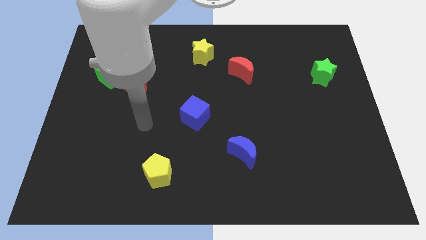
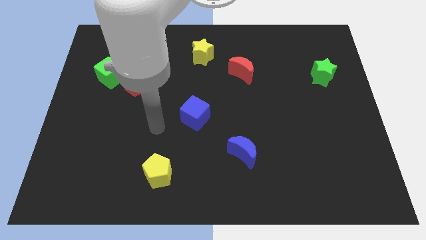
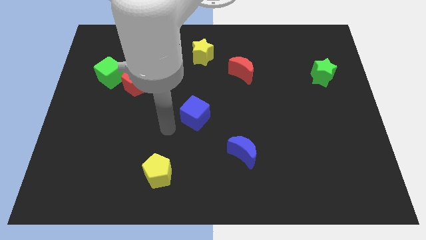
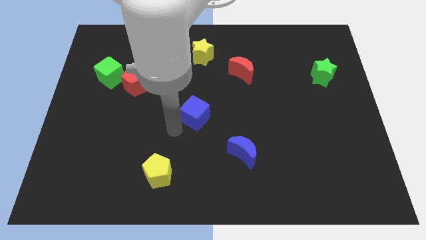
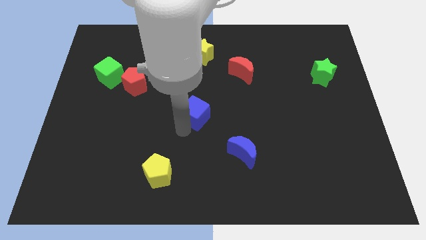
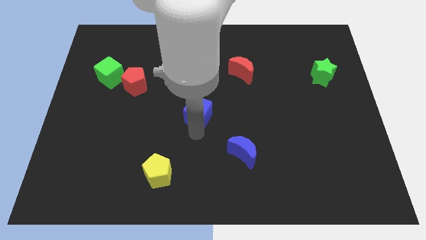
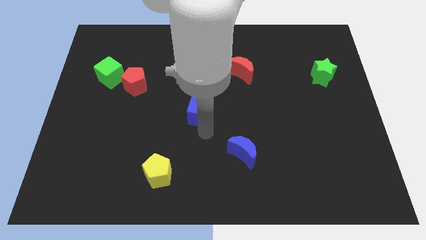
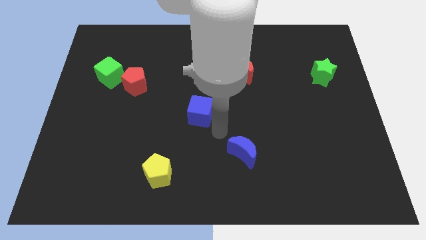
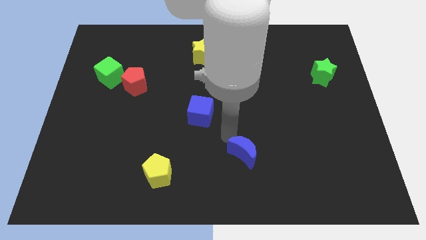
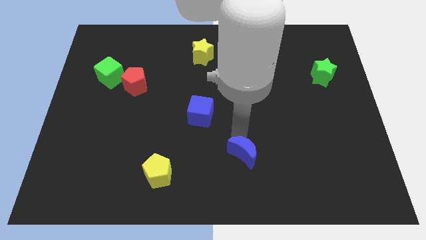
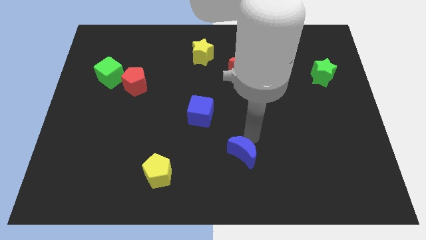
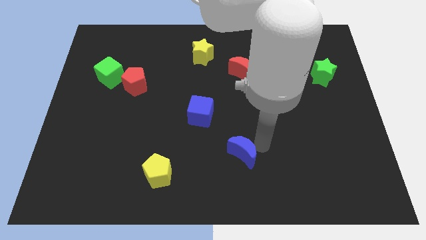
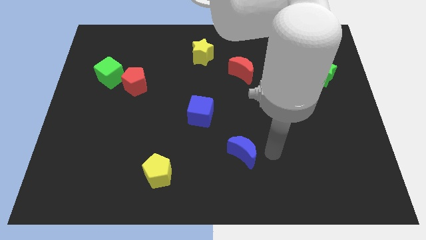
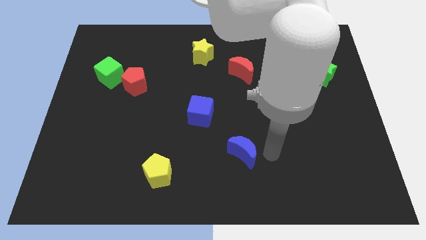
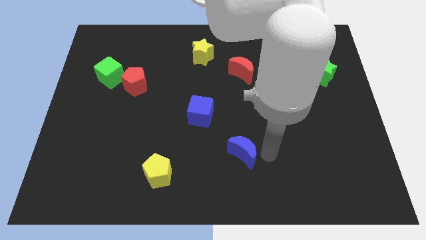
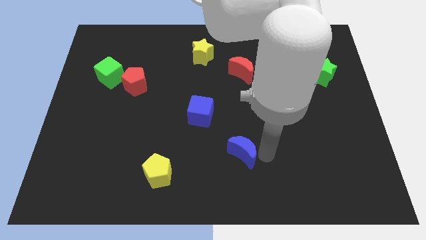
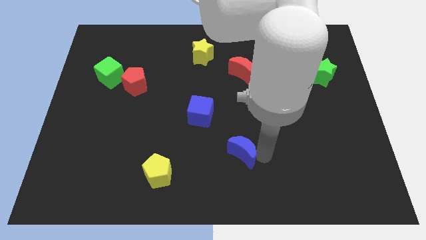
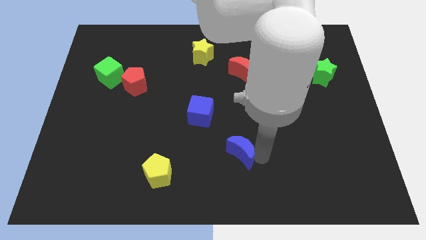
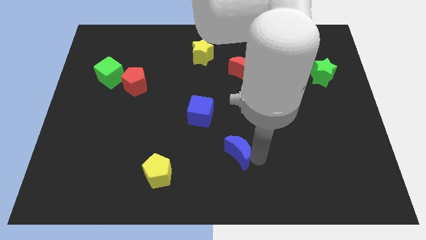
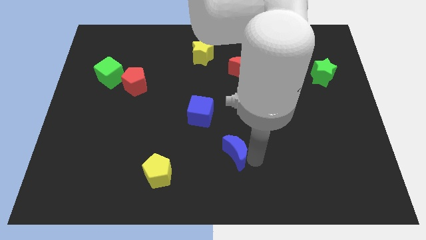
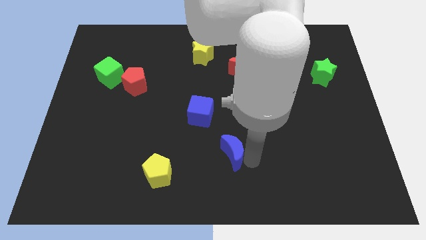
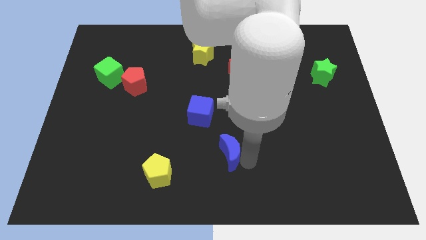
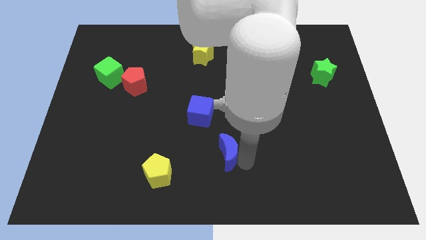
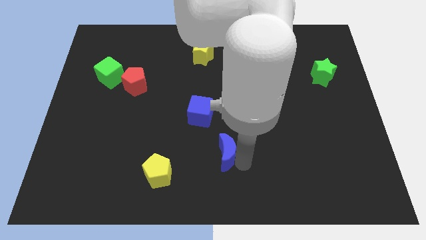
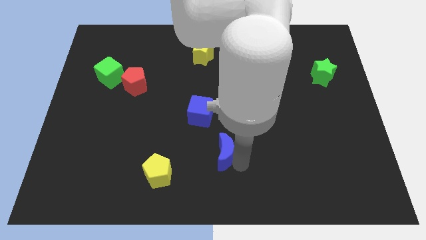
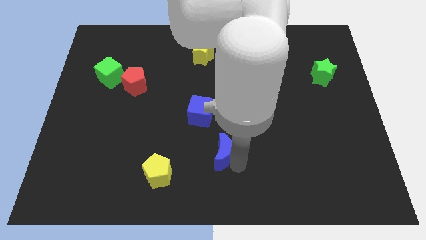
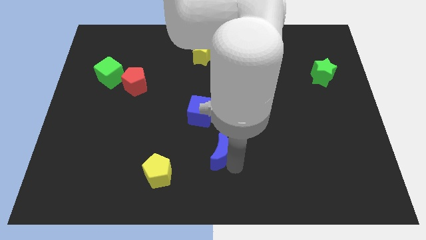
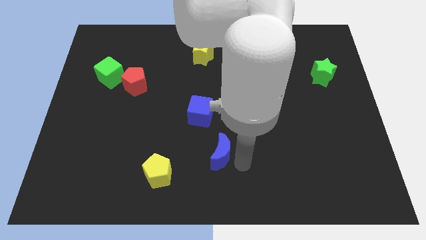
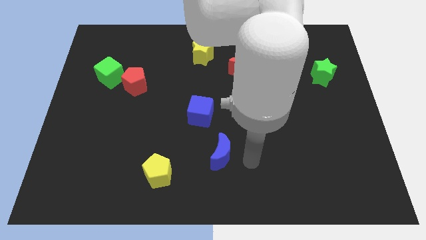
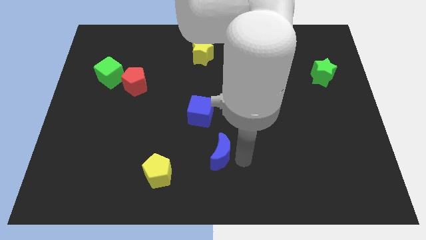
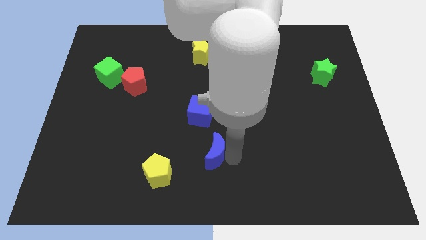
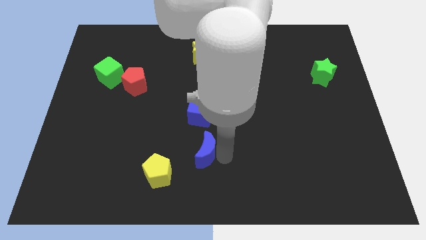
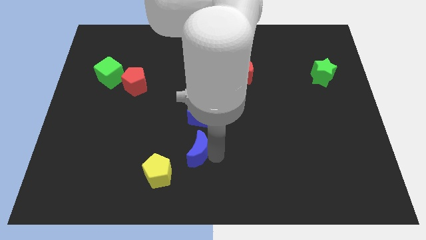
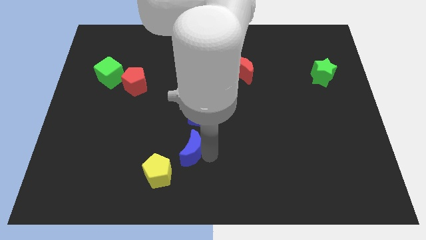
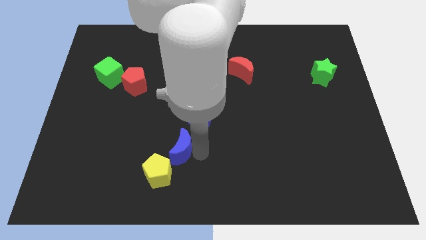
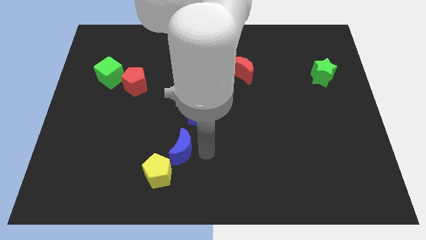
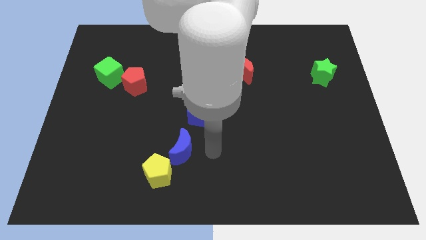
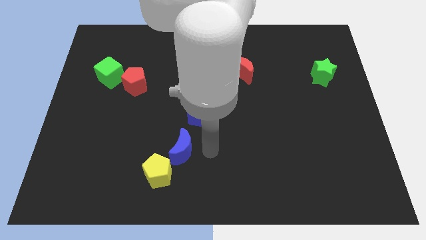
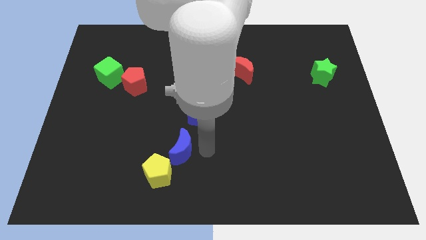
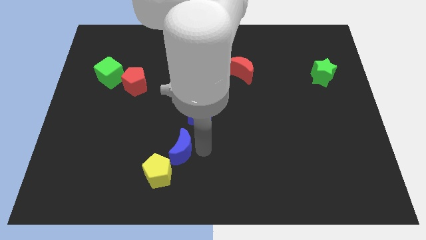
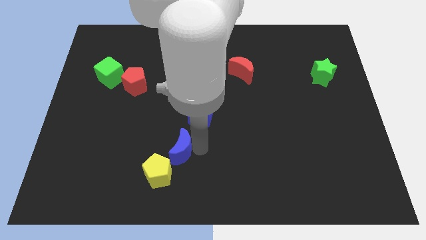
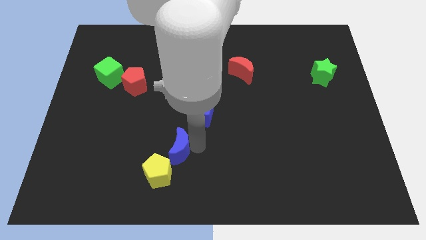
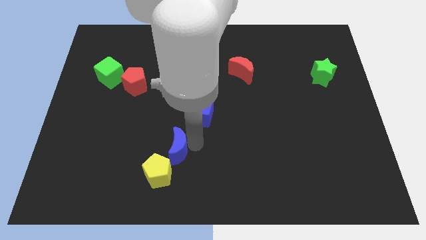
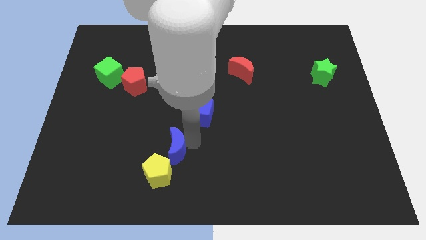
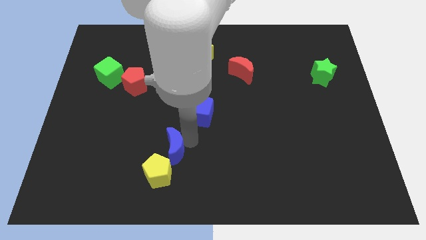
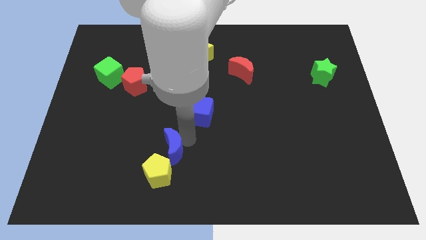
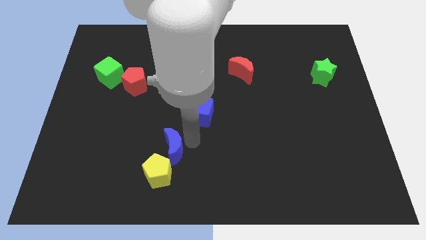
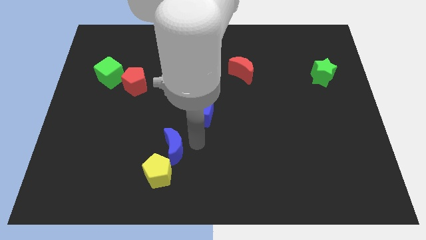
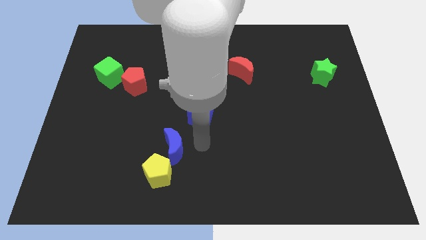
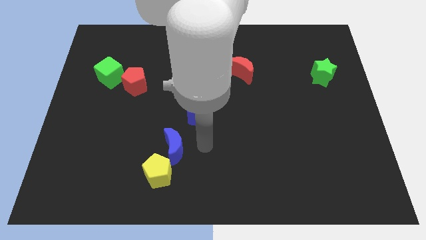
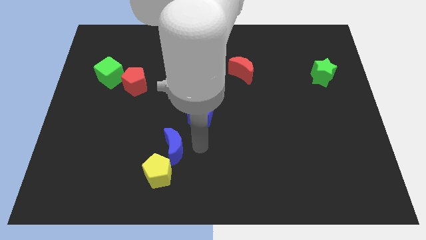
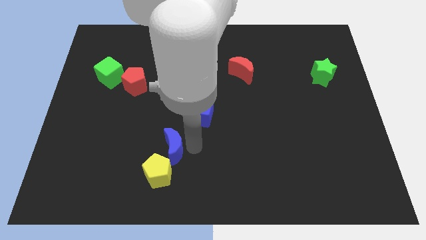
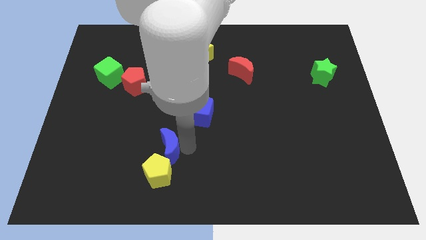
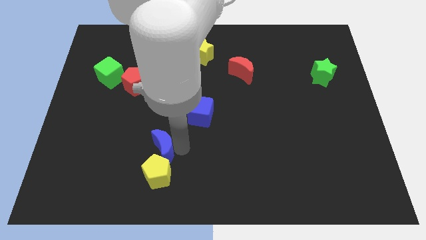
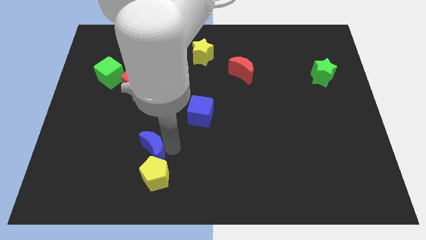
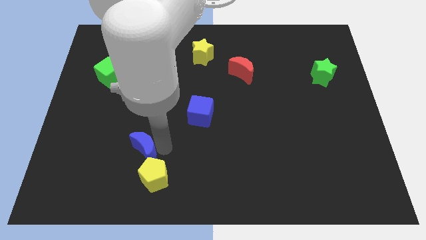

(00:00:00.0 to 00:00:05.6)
slide the blue moon left

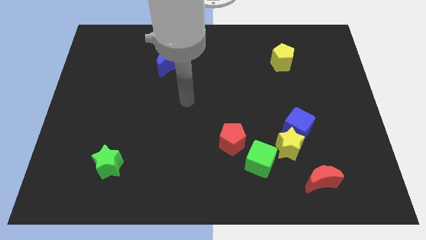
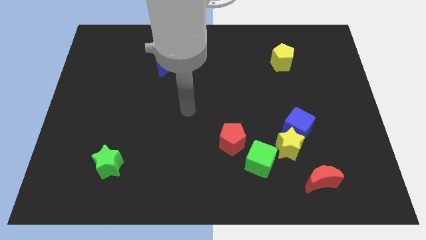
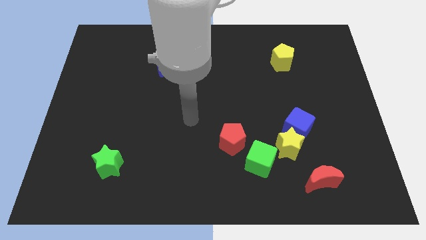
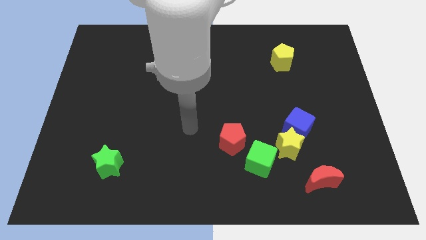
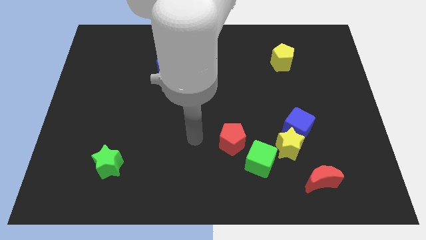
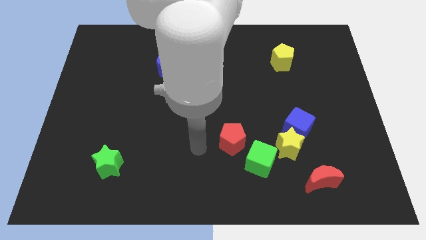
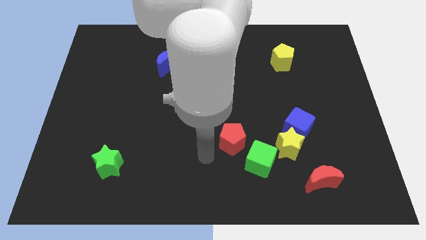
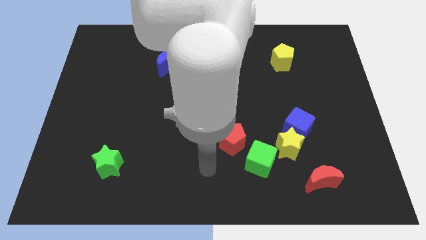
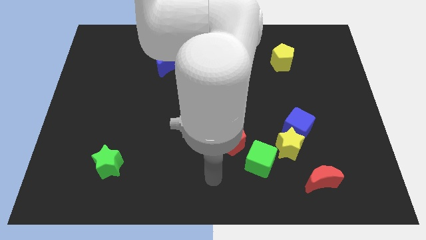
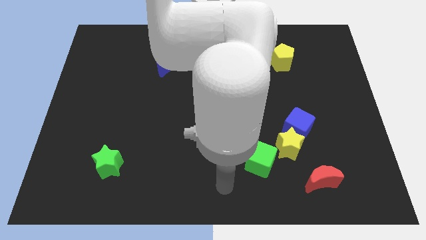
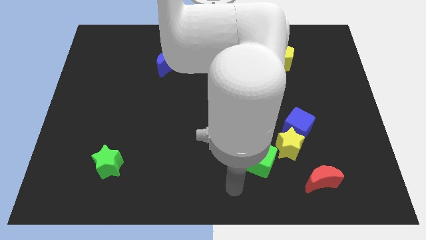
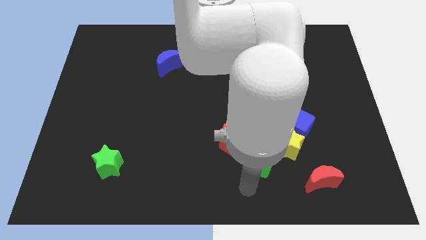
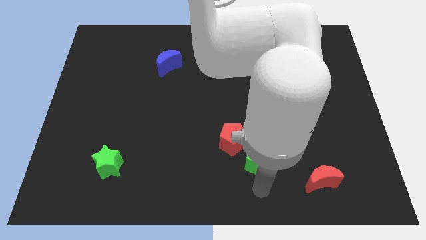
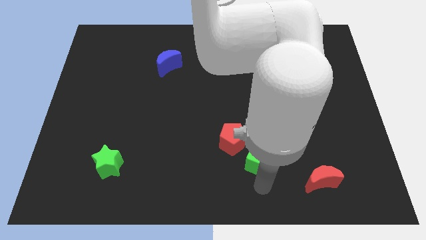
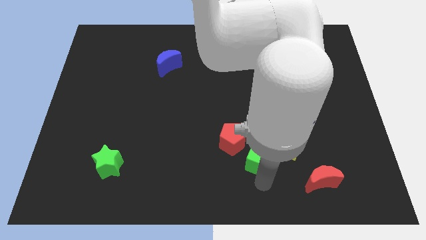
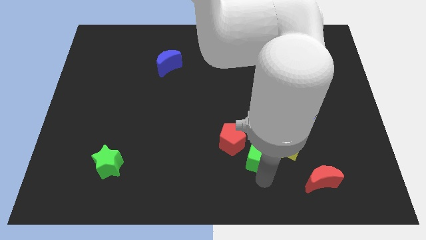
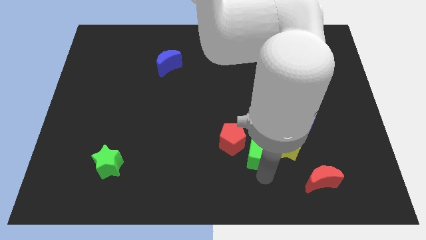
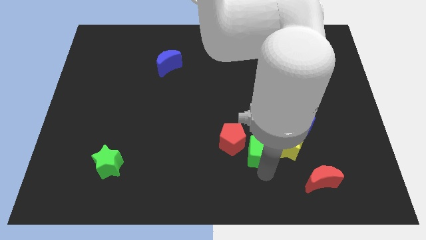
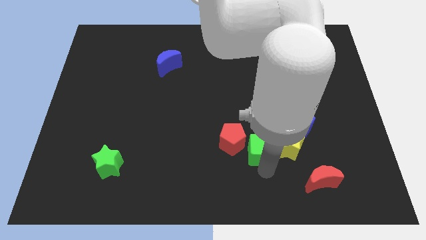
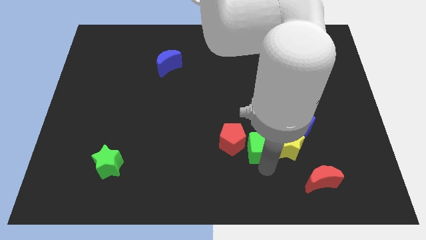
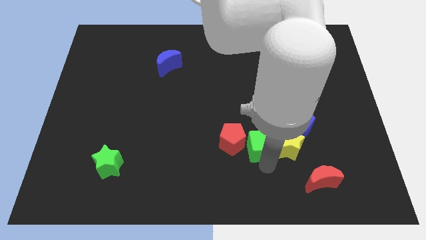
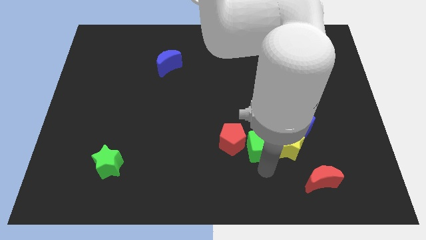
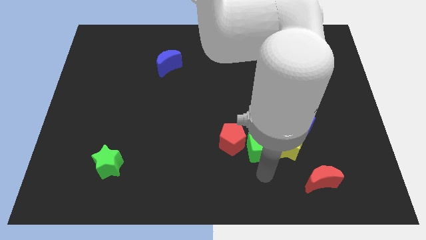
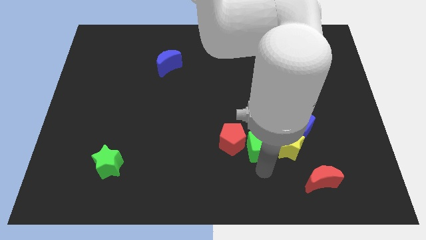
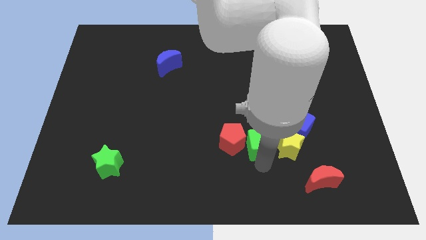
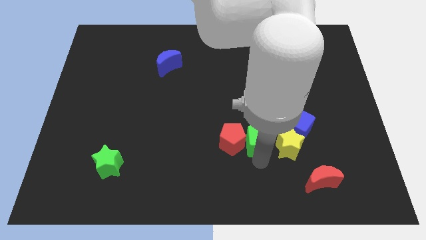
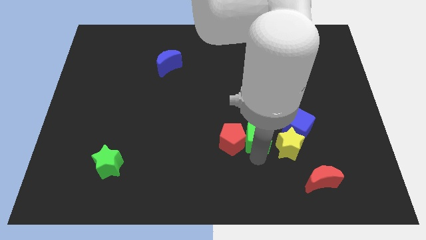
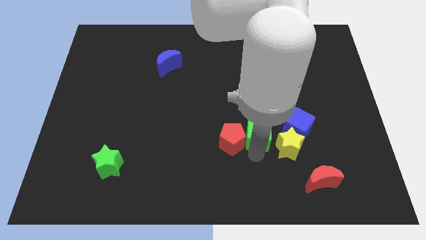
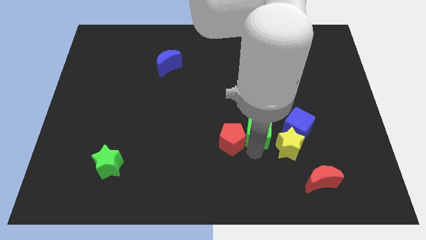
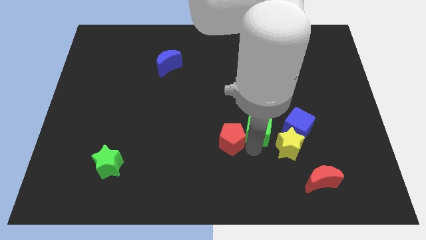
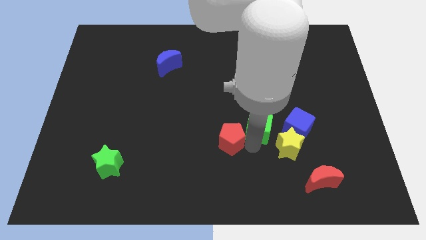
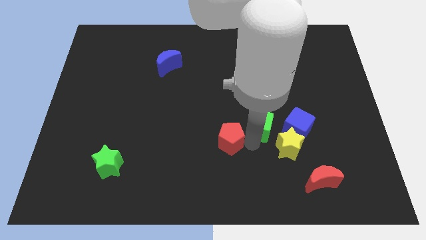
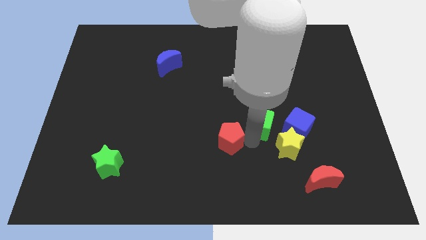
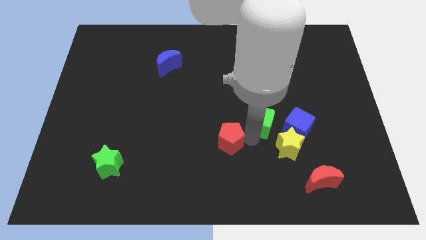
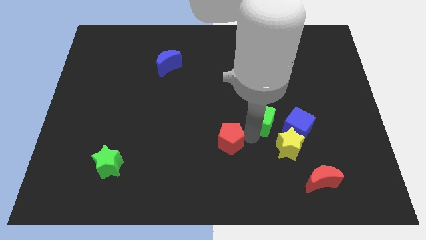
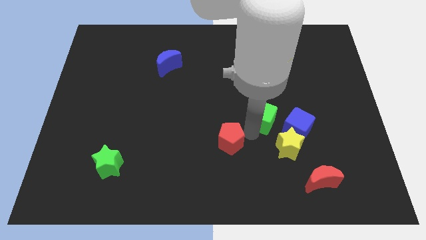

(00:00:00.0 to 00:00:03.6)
push the green cube somewhat diagonally up and to the right
